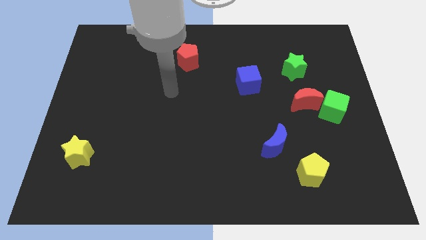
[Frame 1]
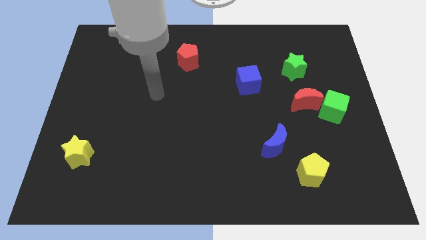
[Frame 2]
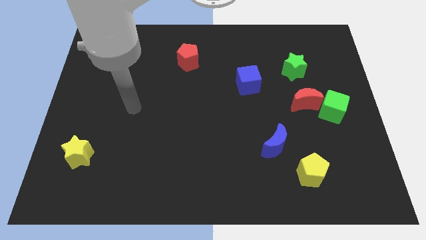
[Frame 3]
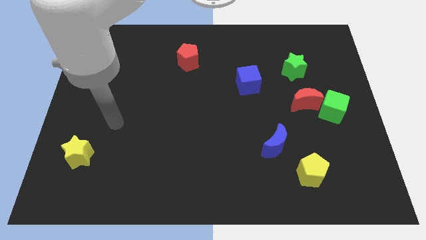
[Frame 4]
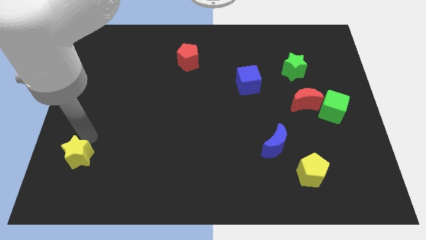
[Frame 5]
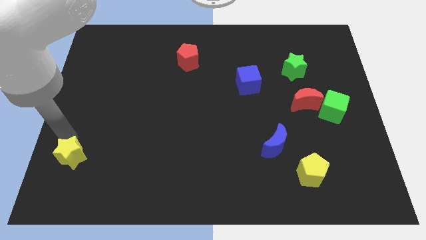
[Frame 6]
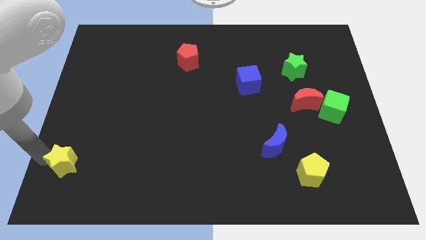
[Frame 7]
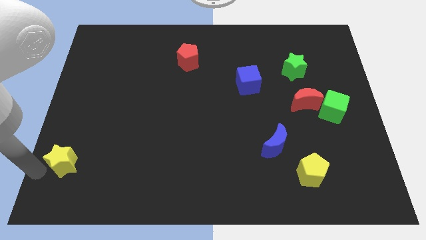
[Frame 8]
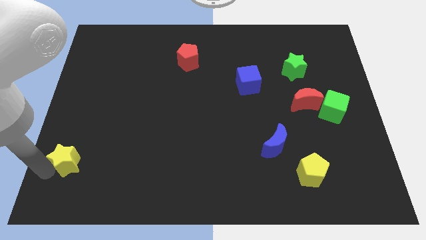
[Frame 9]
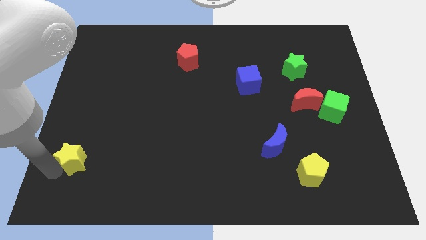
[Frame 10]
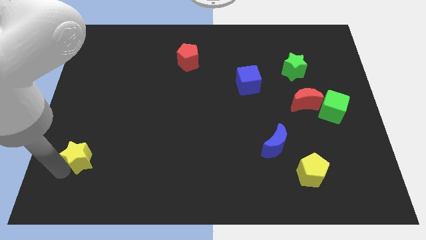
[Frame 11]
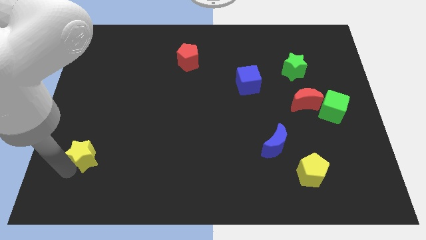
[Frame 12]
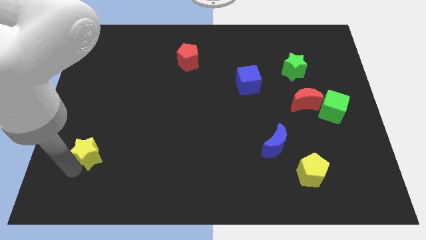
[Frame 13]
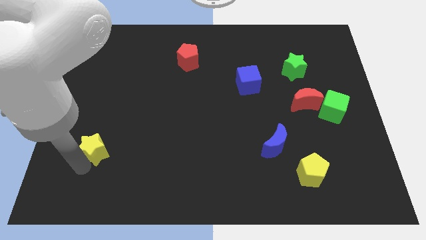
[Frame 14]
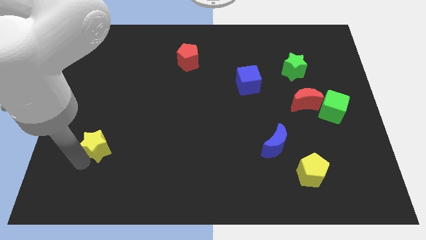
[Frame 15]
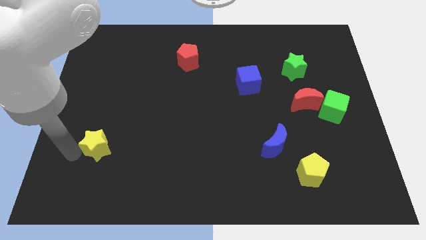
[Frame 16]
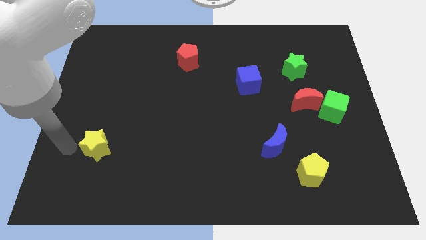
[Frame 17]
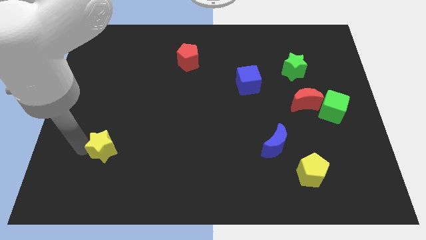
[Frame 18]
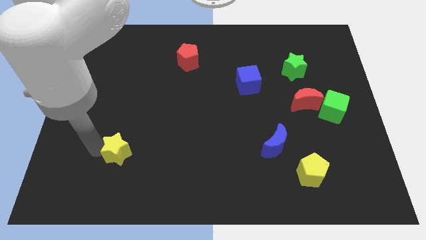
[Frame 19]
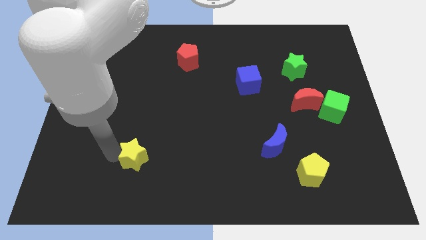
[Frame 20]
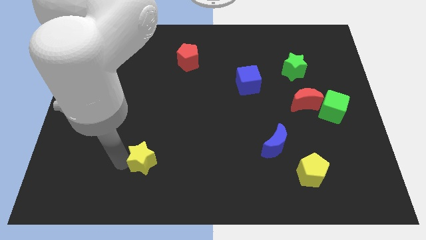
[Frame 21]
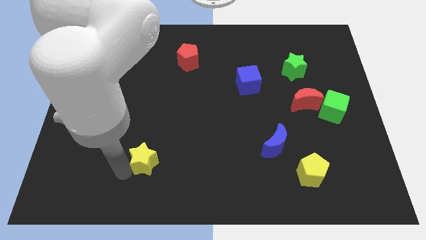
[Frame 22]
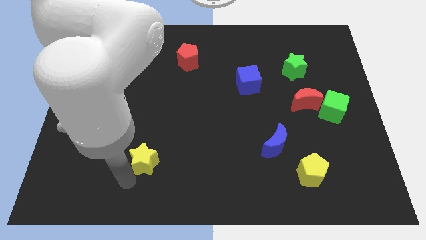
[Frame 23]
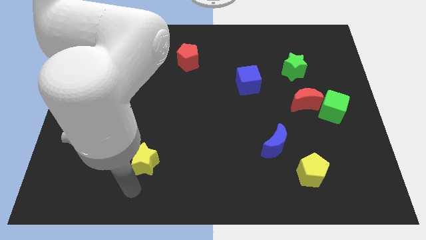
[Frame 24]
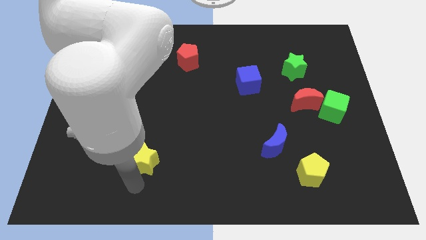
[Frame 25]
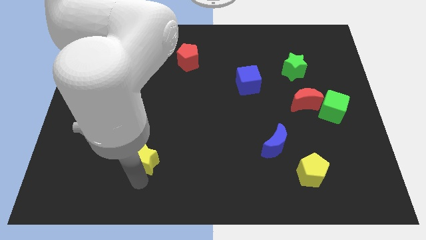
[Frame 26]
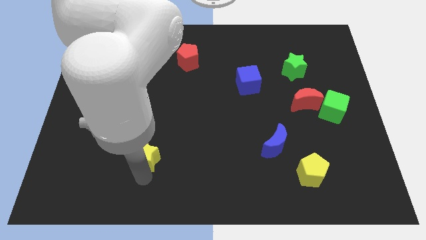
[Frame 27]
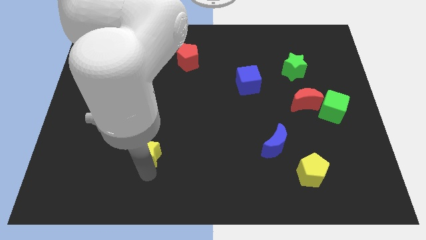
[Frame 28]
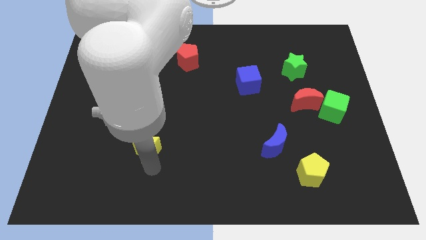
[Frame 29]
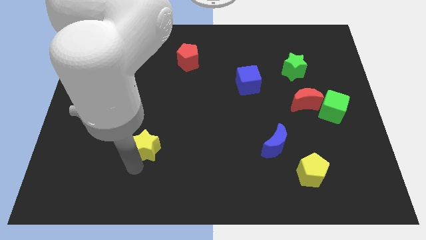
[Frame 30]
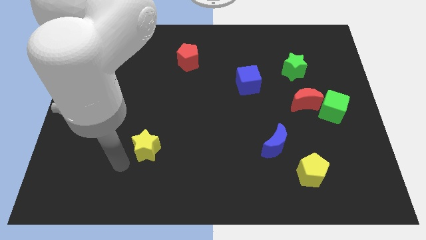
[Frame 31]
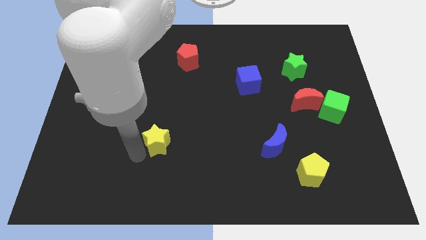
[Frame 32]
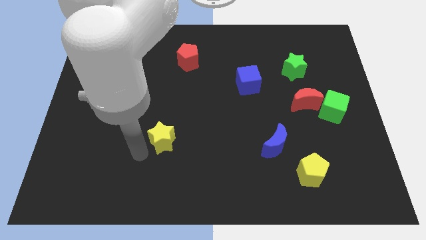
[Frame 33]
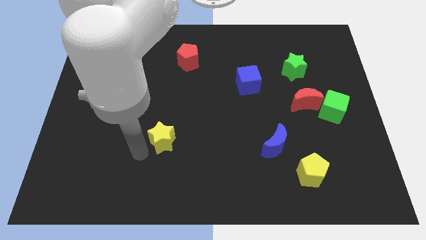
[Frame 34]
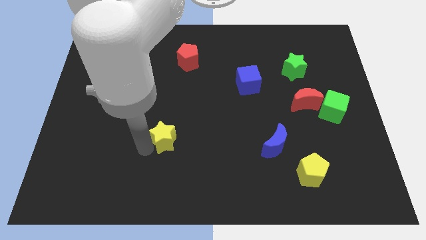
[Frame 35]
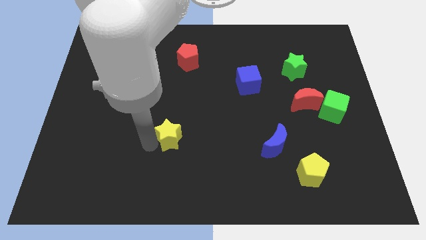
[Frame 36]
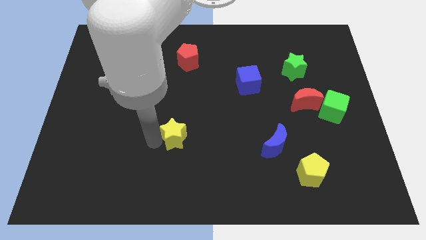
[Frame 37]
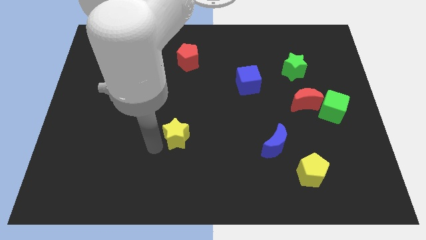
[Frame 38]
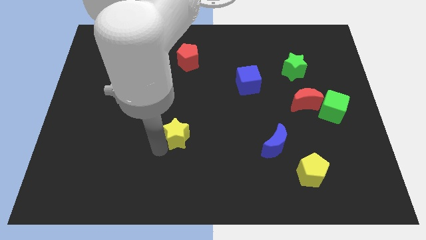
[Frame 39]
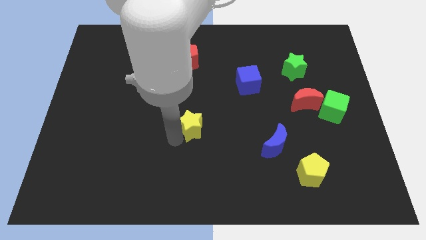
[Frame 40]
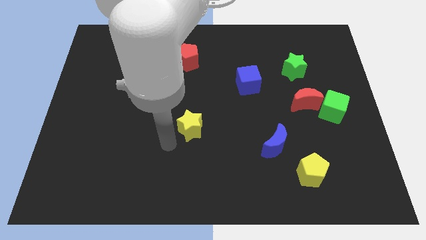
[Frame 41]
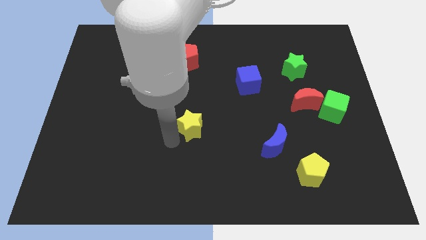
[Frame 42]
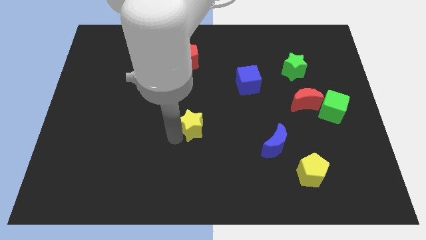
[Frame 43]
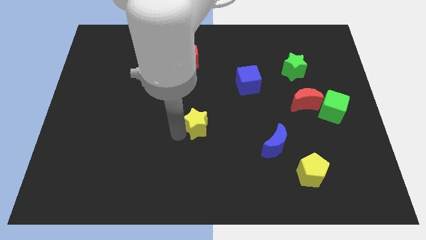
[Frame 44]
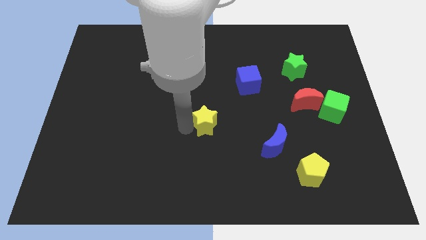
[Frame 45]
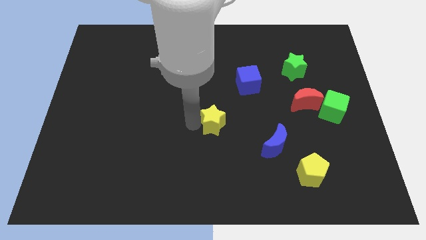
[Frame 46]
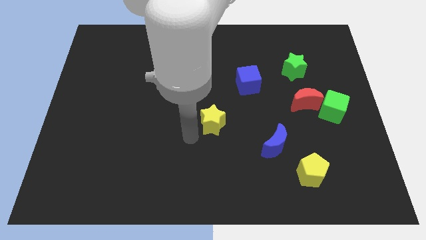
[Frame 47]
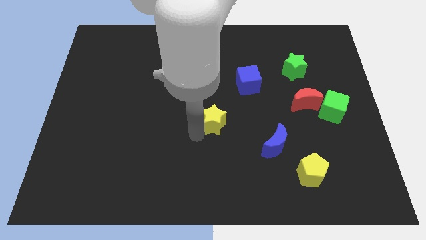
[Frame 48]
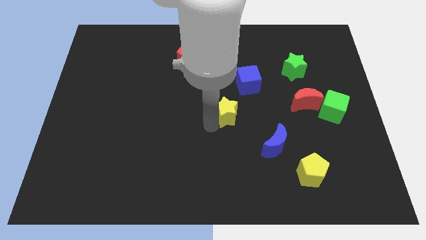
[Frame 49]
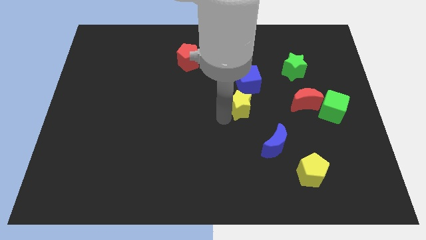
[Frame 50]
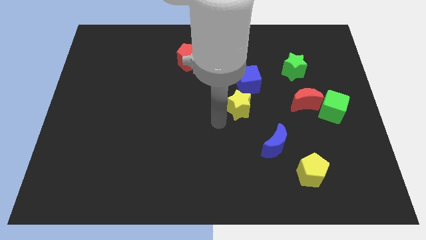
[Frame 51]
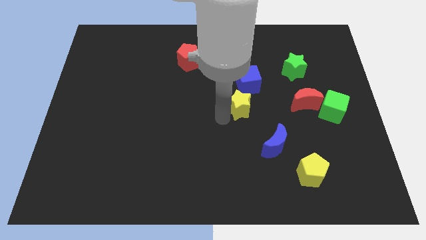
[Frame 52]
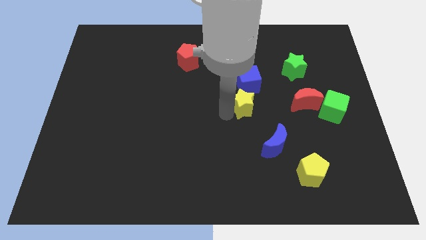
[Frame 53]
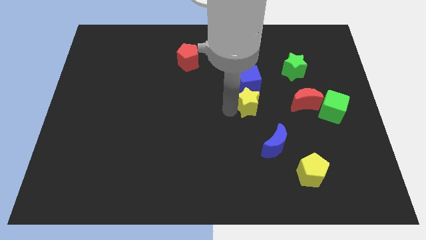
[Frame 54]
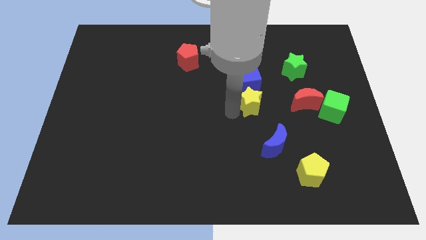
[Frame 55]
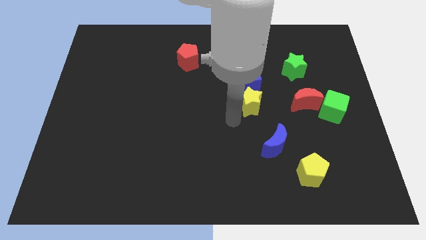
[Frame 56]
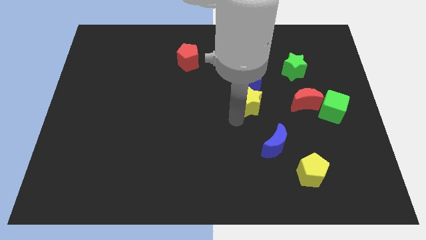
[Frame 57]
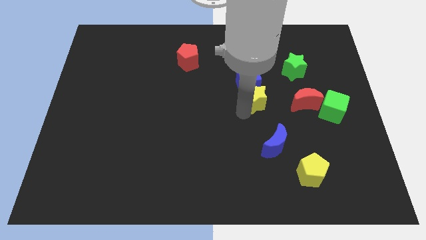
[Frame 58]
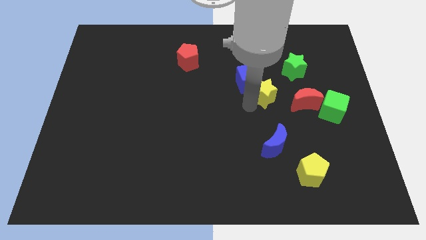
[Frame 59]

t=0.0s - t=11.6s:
slide the yellow star to the right of the blue cube

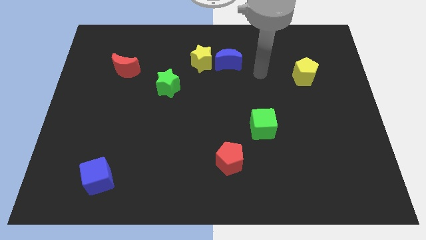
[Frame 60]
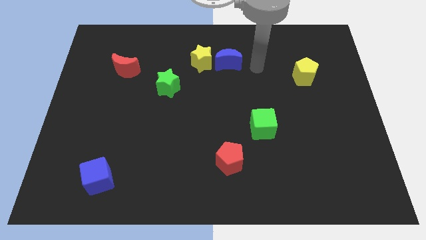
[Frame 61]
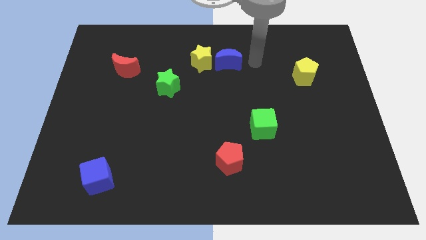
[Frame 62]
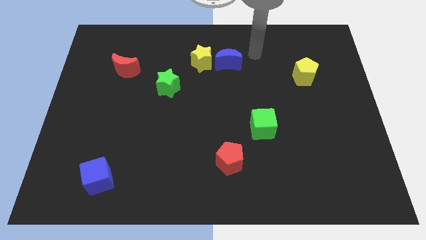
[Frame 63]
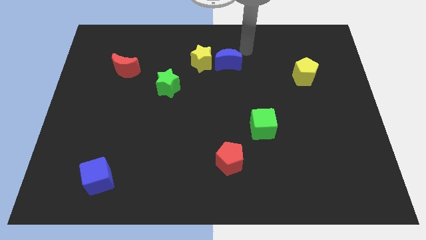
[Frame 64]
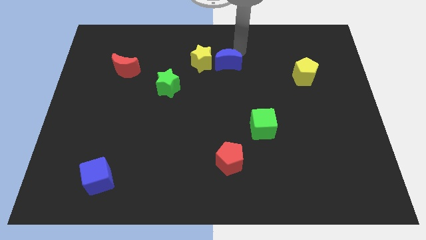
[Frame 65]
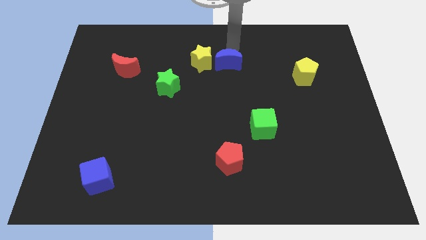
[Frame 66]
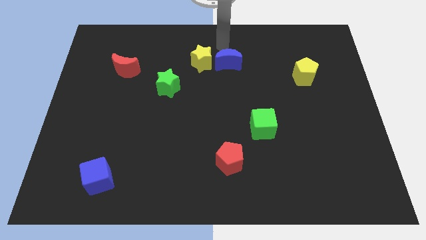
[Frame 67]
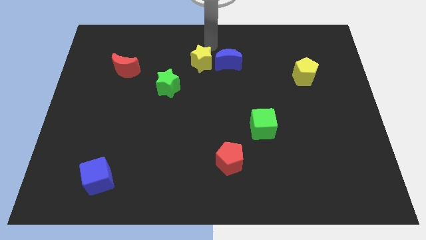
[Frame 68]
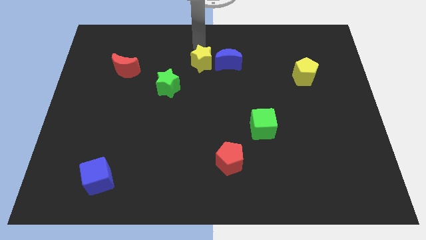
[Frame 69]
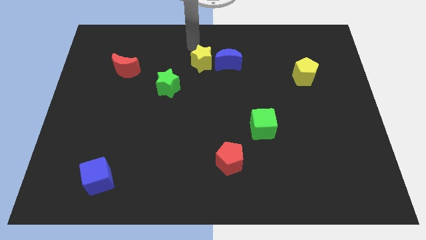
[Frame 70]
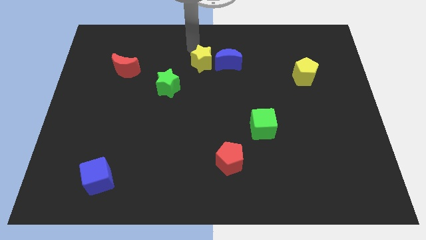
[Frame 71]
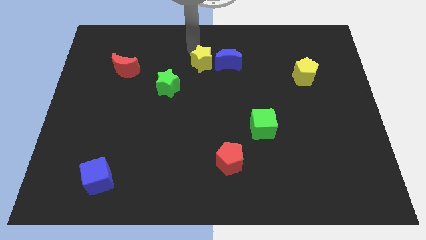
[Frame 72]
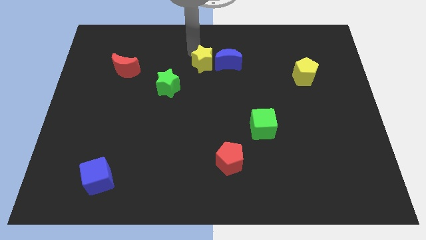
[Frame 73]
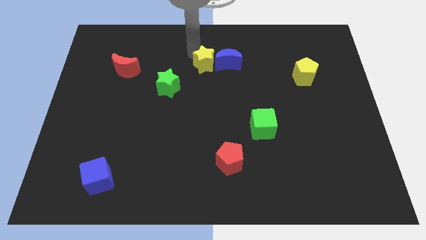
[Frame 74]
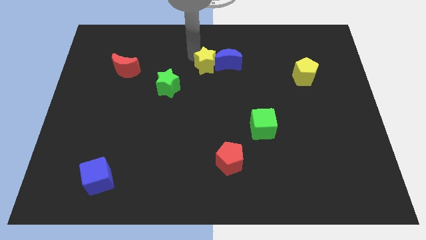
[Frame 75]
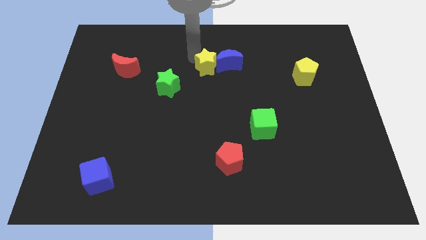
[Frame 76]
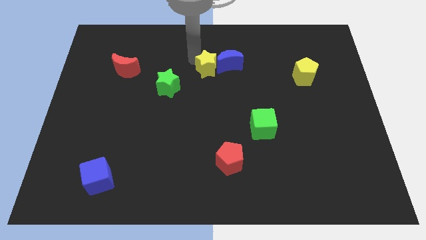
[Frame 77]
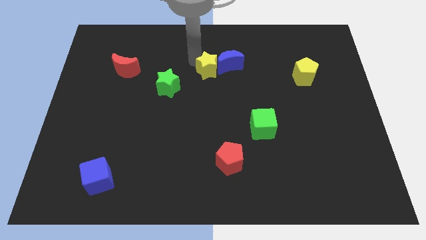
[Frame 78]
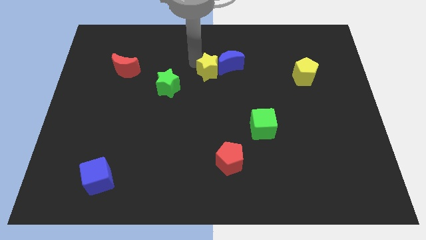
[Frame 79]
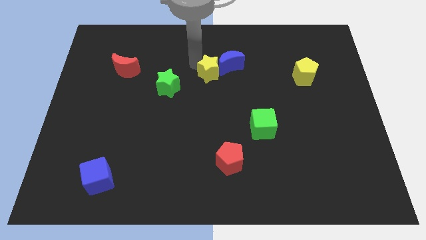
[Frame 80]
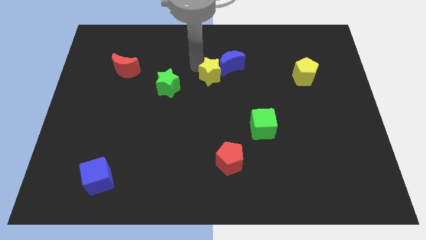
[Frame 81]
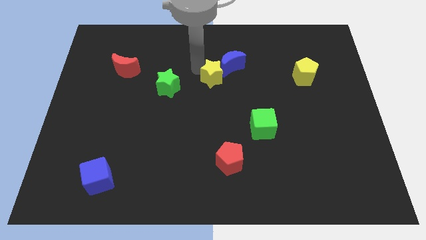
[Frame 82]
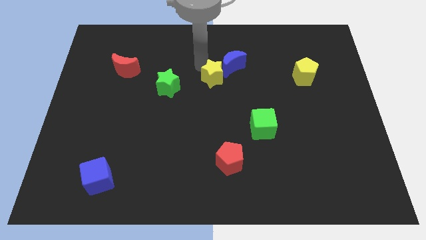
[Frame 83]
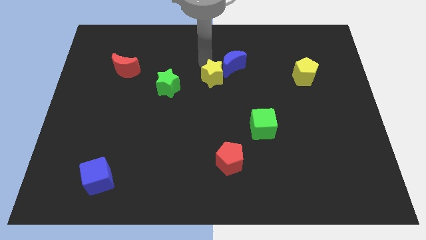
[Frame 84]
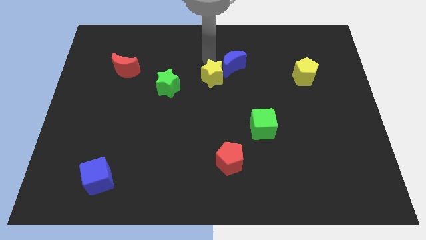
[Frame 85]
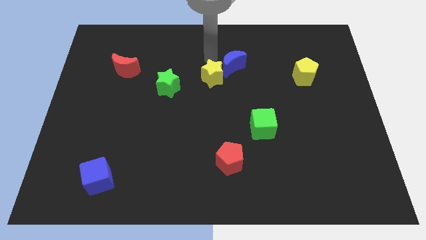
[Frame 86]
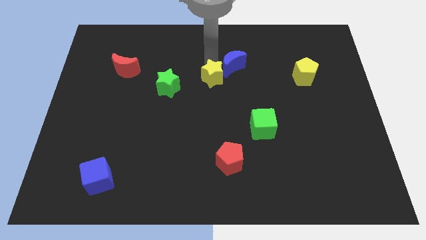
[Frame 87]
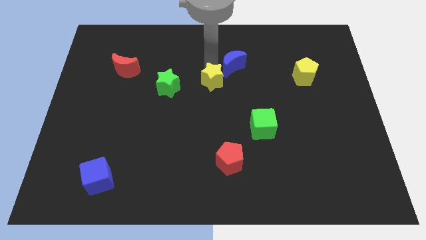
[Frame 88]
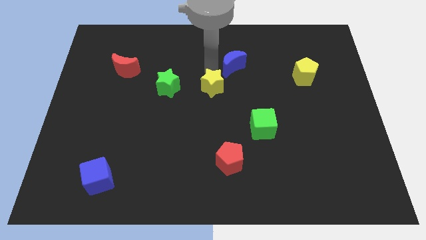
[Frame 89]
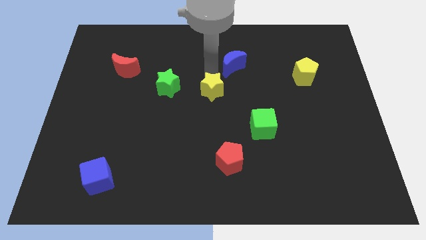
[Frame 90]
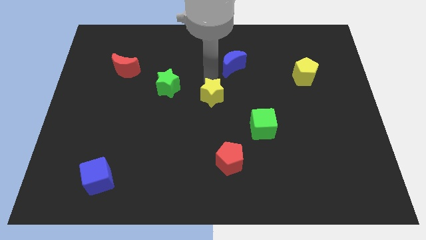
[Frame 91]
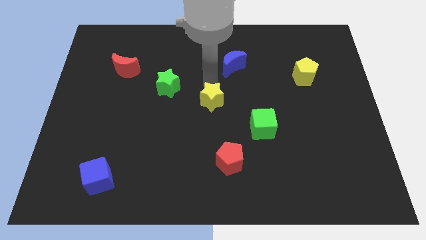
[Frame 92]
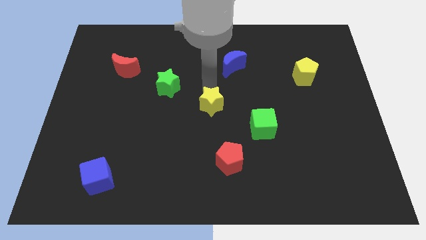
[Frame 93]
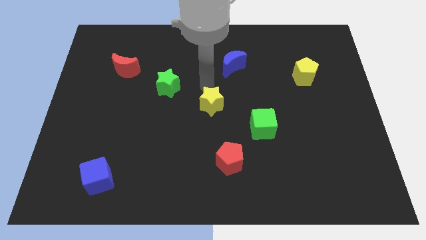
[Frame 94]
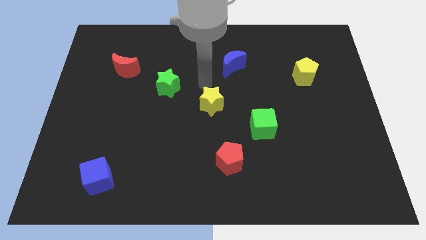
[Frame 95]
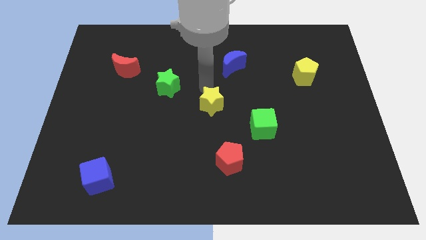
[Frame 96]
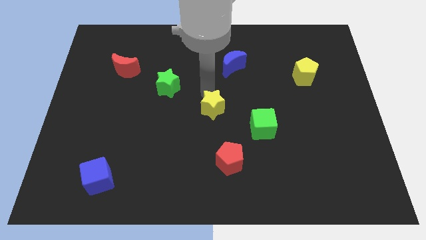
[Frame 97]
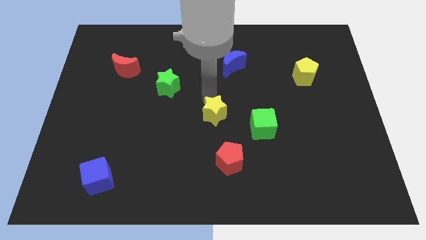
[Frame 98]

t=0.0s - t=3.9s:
move the yellow star left of the green cube
